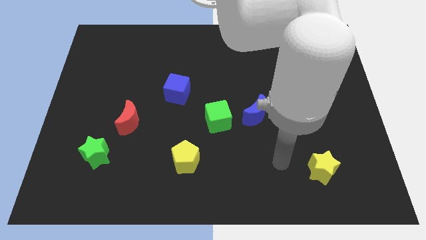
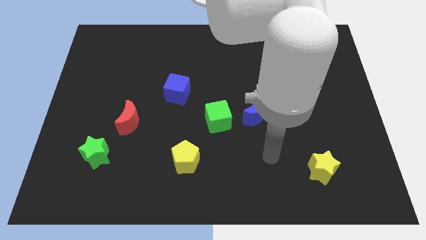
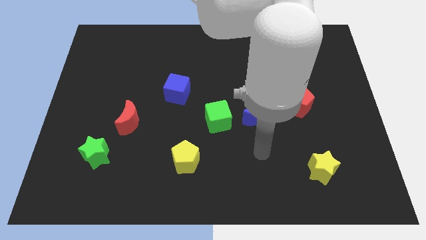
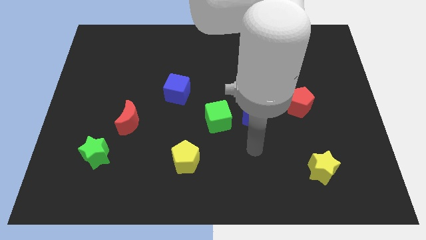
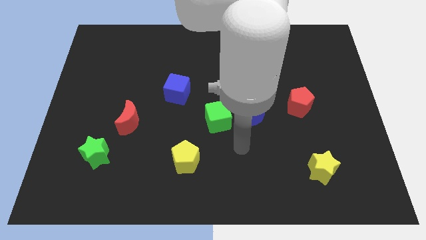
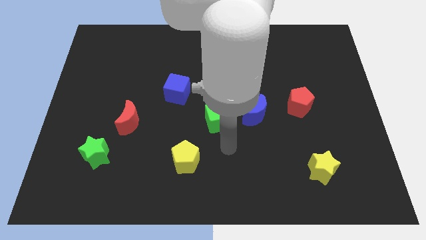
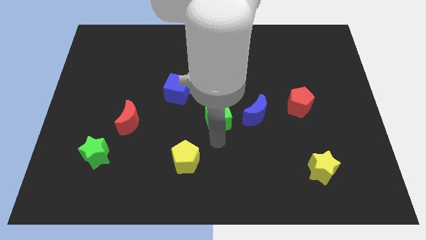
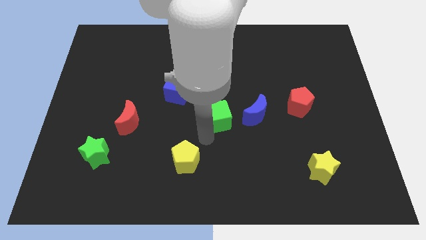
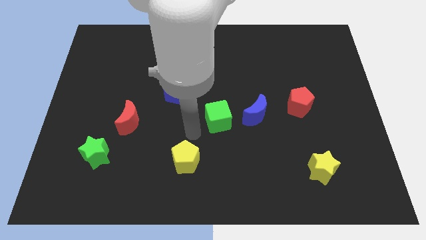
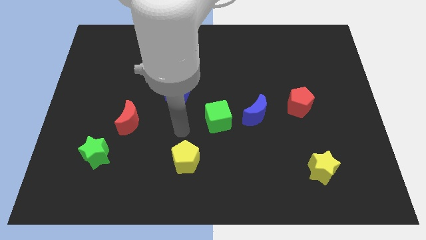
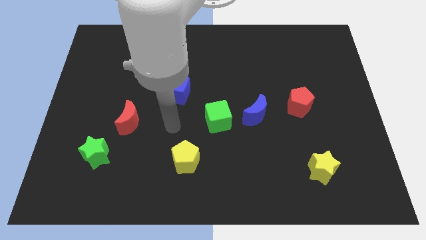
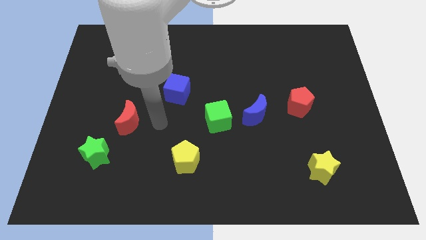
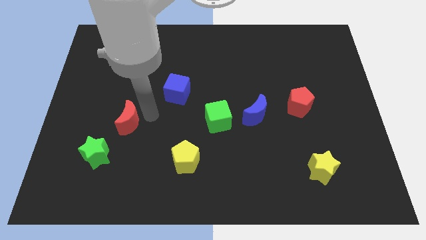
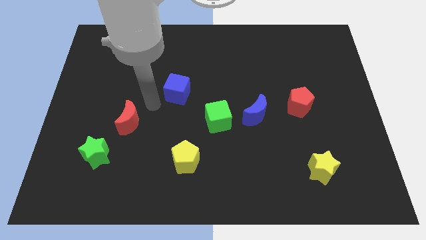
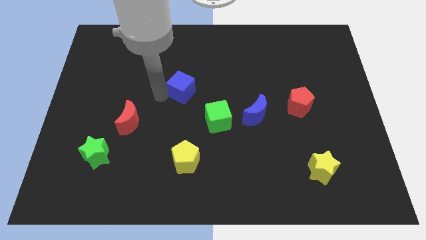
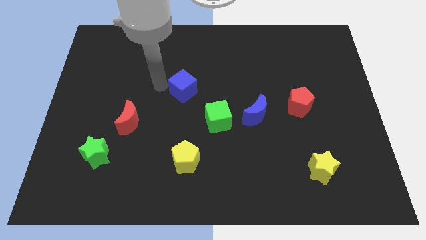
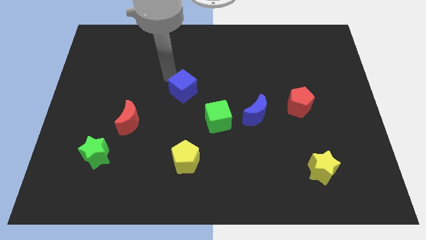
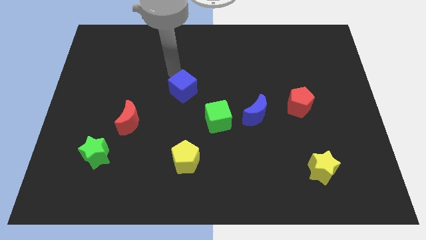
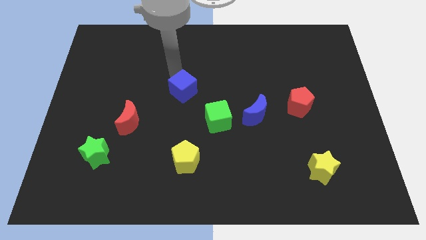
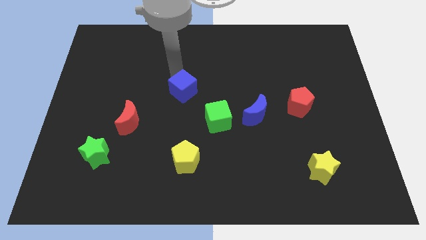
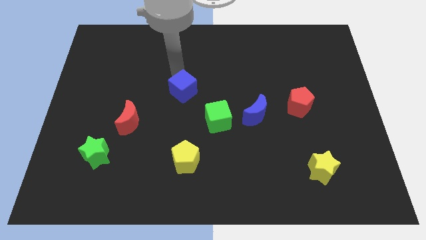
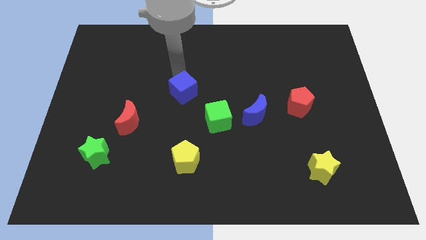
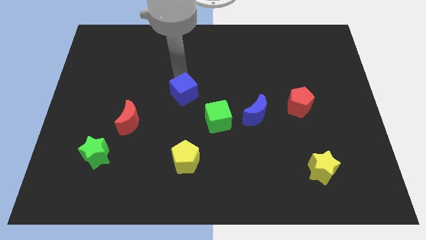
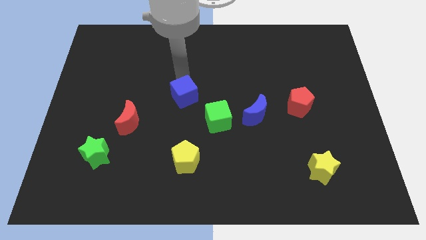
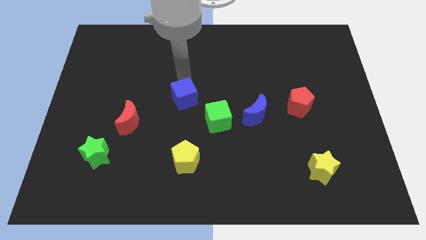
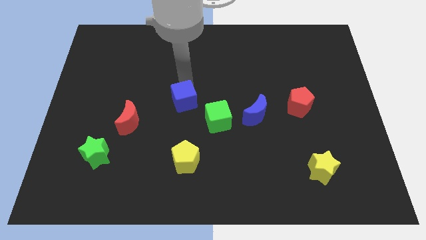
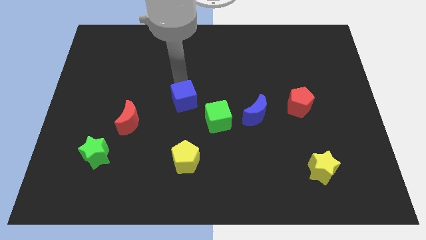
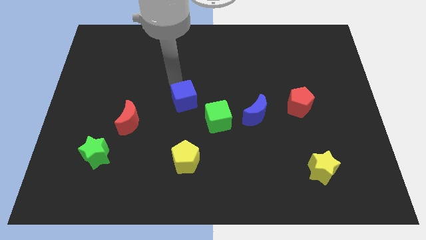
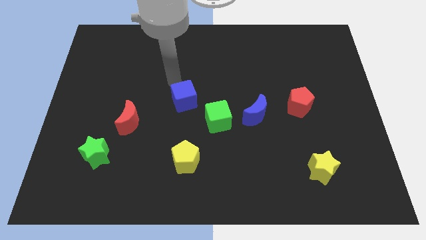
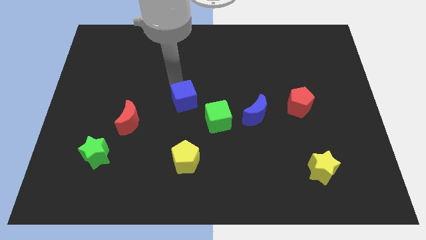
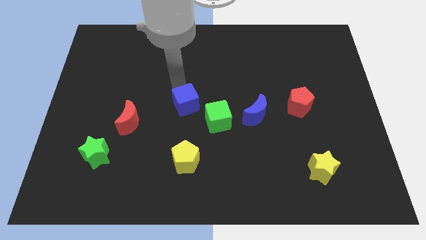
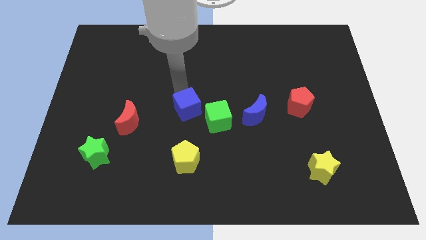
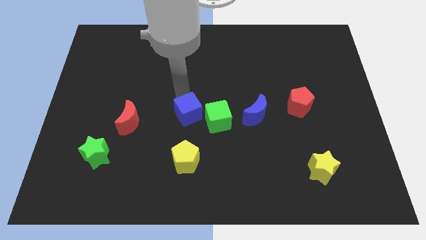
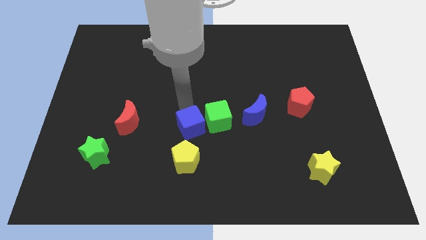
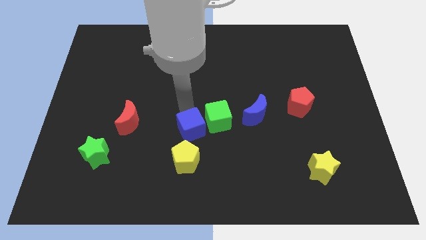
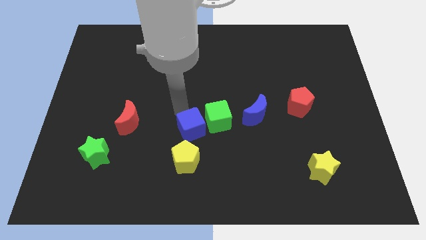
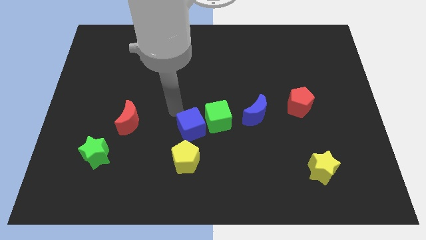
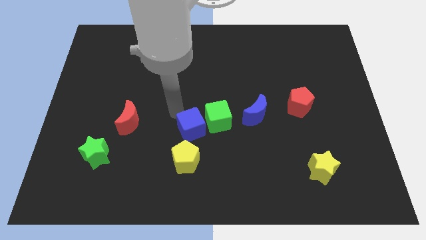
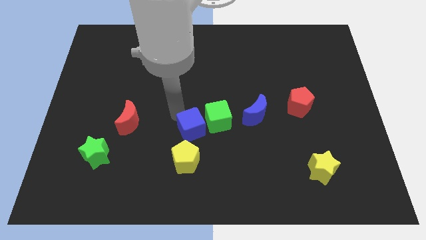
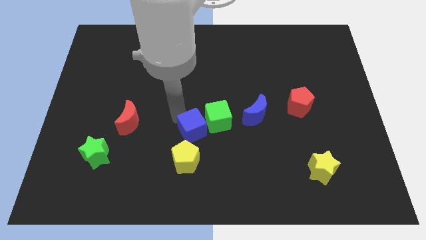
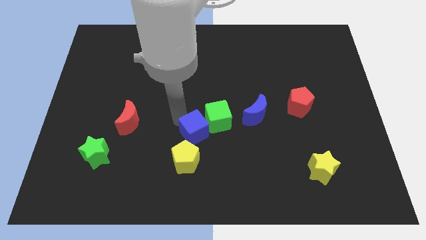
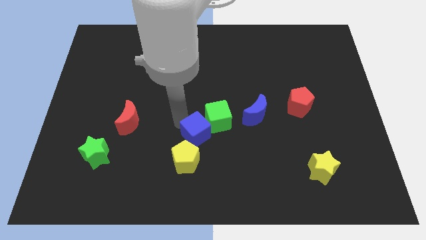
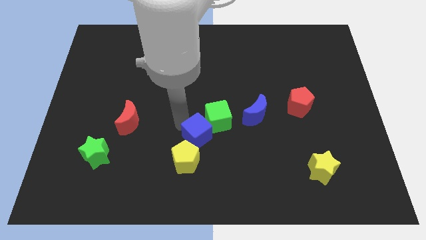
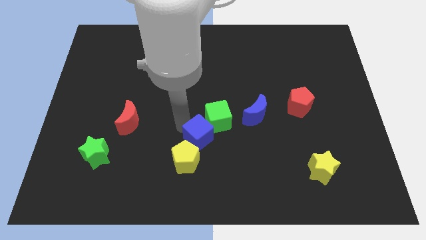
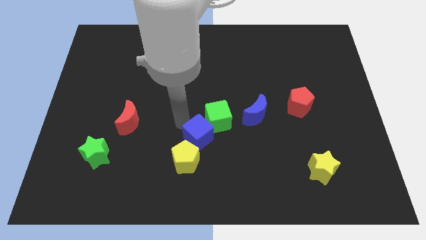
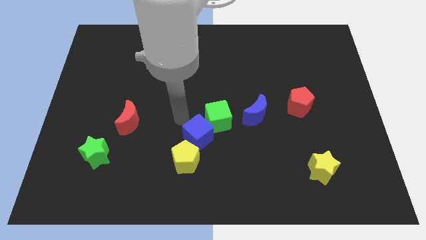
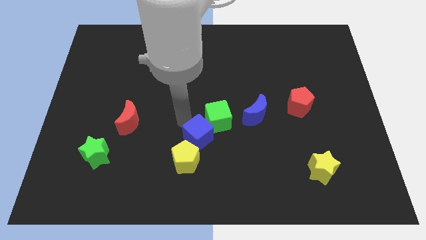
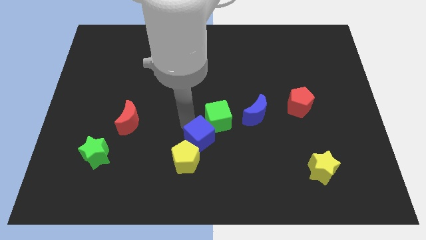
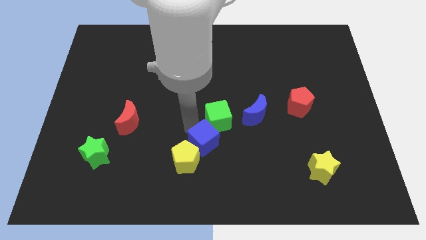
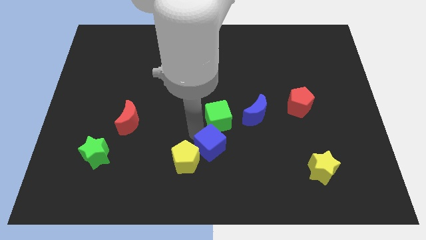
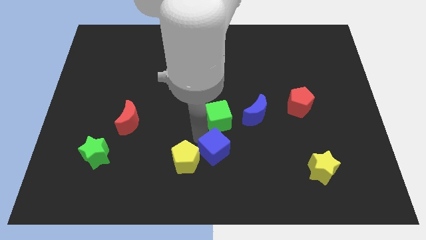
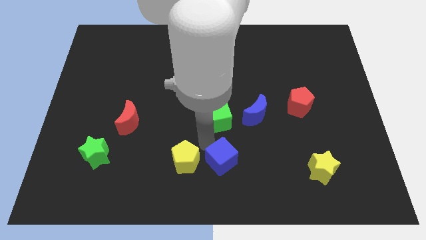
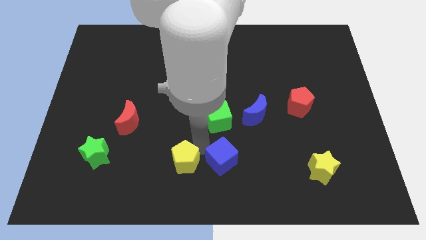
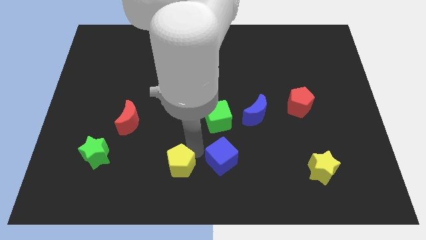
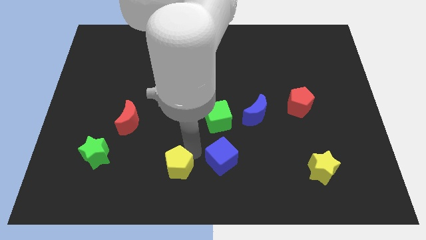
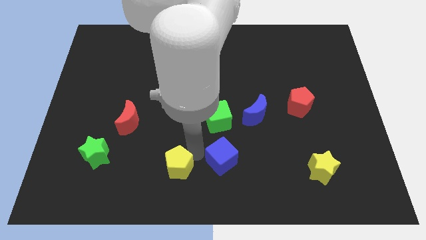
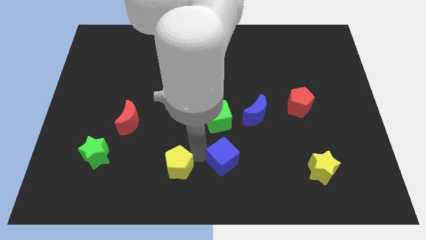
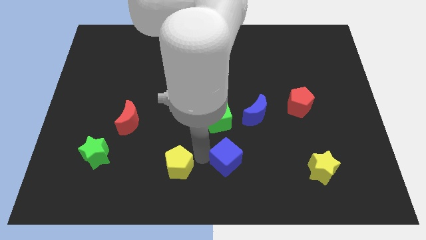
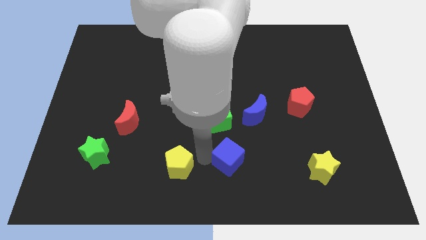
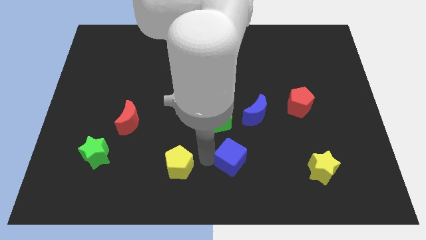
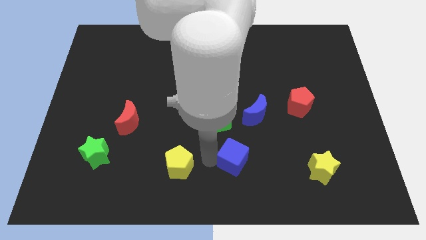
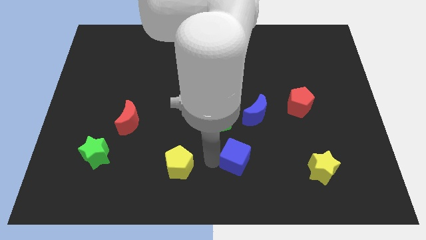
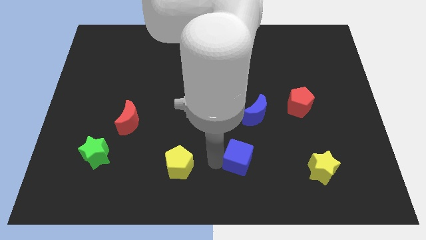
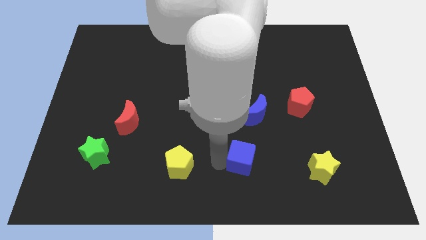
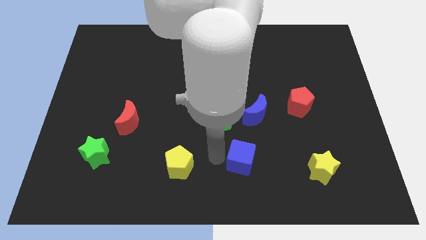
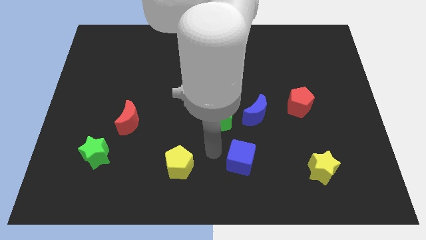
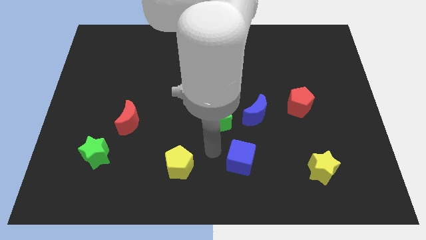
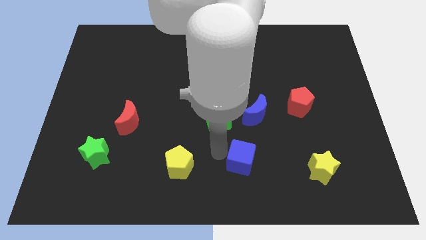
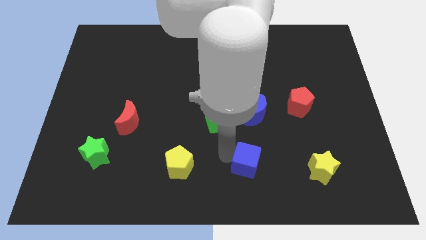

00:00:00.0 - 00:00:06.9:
slide the blue cube to the left of the yellow star
